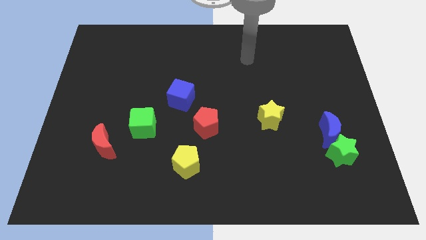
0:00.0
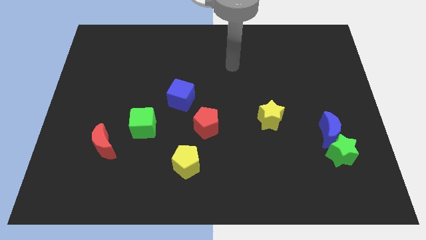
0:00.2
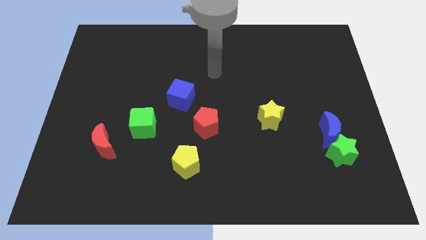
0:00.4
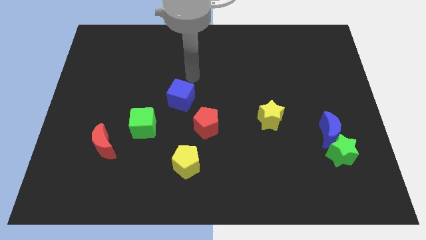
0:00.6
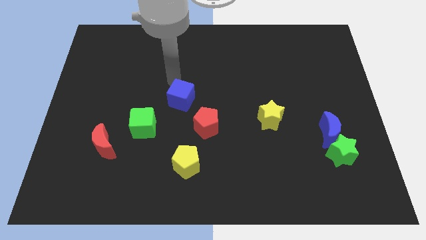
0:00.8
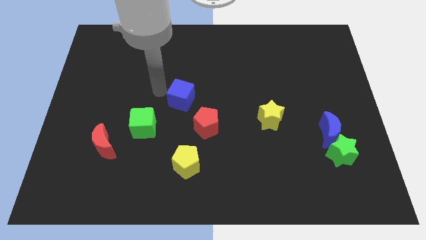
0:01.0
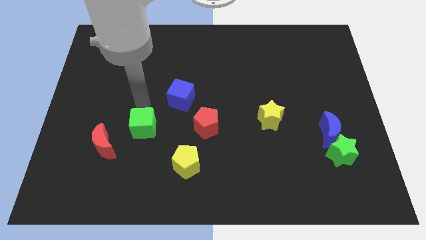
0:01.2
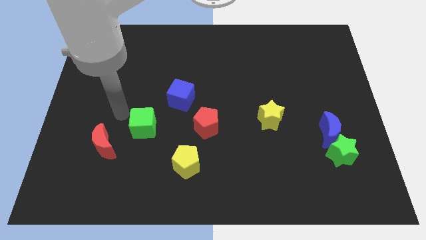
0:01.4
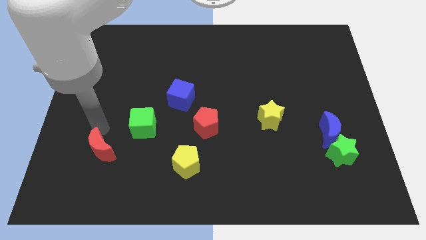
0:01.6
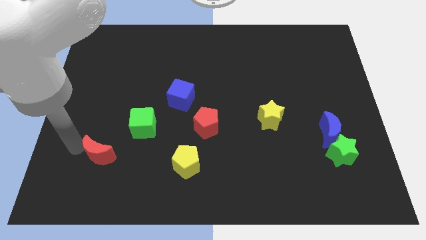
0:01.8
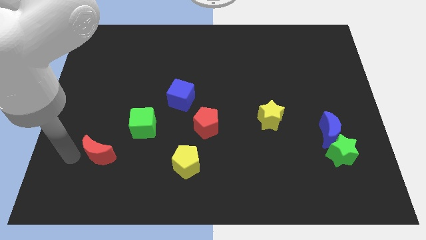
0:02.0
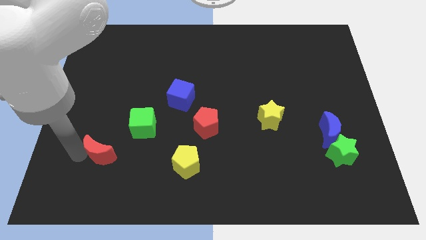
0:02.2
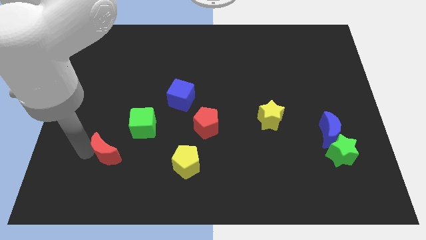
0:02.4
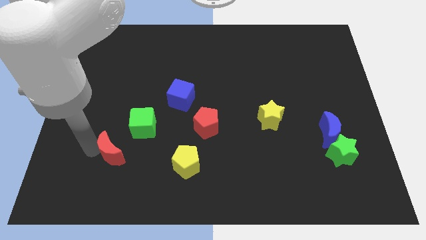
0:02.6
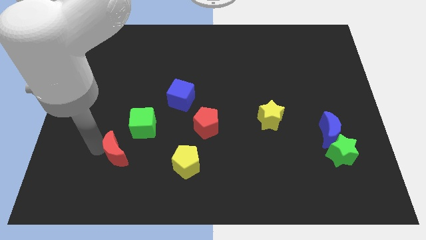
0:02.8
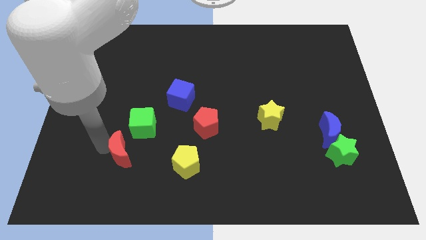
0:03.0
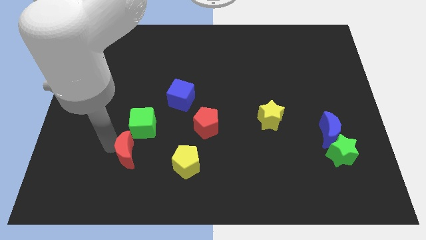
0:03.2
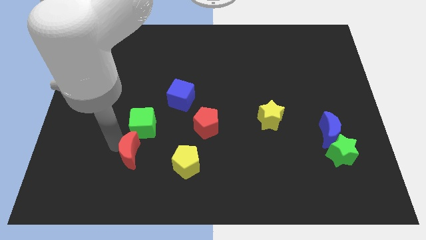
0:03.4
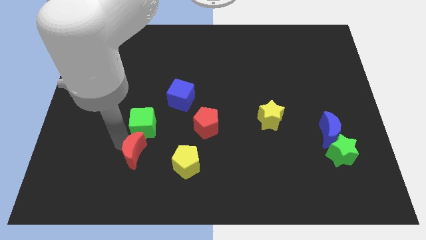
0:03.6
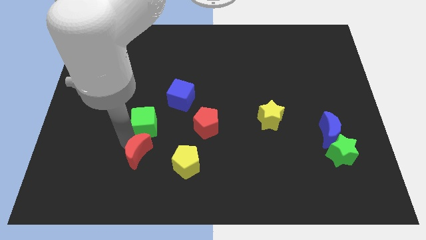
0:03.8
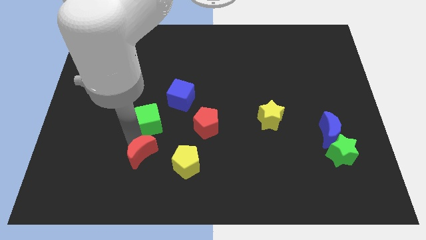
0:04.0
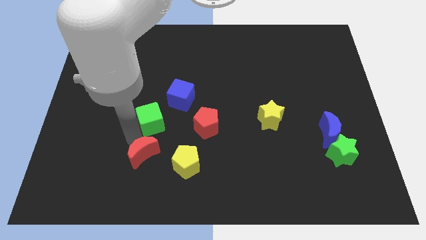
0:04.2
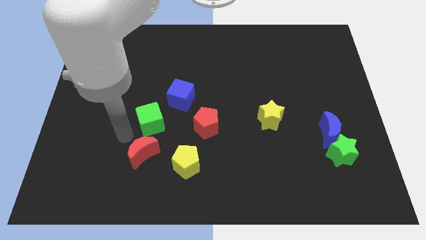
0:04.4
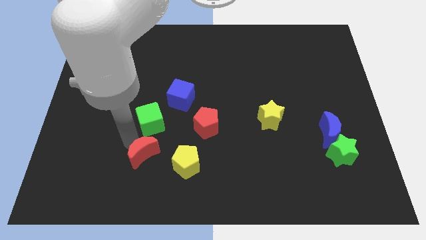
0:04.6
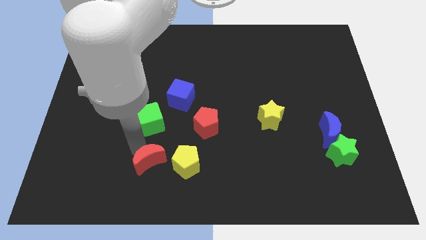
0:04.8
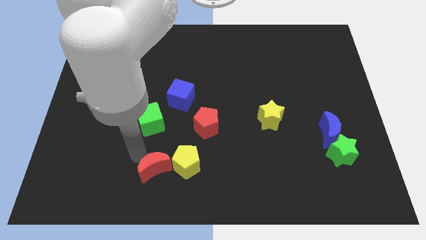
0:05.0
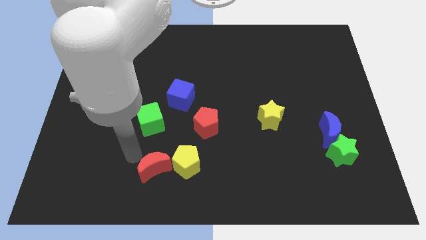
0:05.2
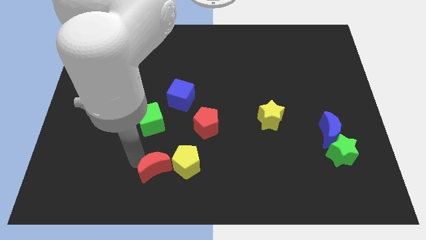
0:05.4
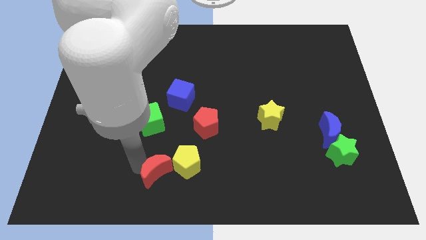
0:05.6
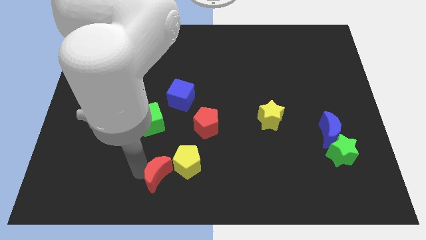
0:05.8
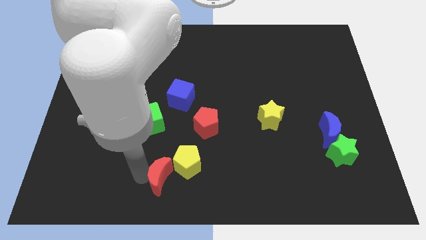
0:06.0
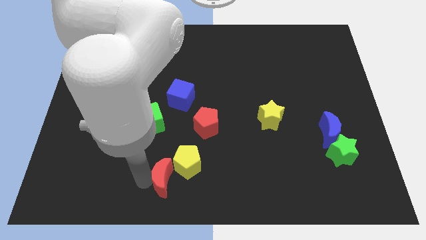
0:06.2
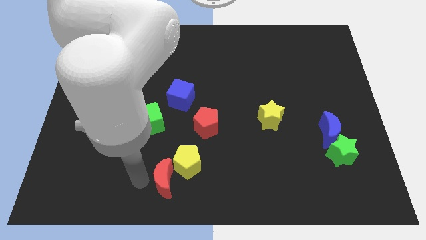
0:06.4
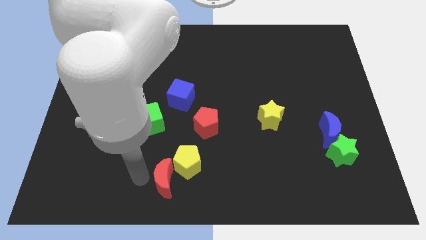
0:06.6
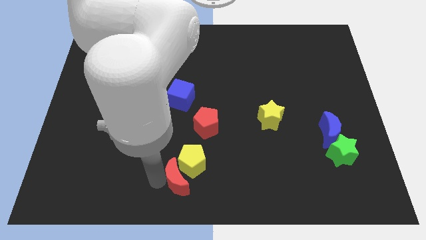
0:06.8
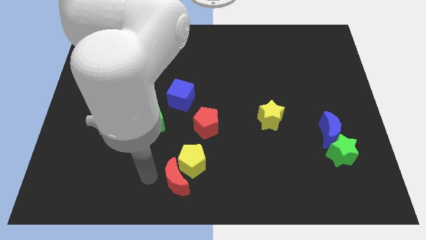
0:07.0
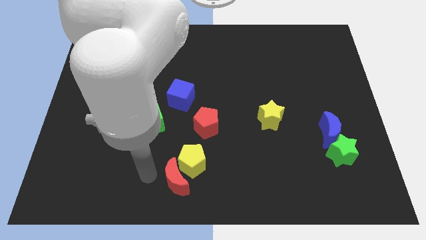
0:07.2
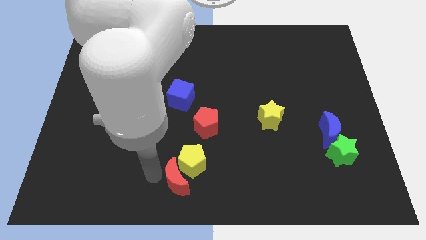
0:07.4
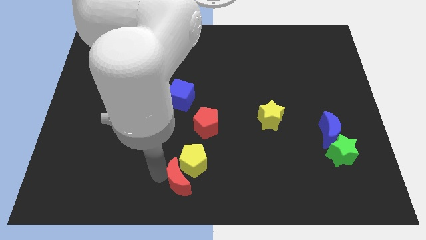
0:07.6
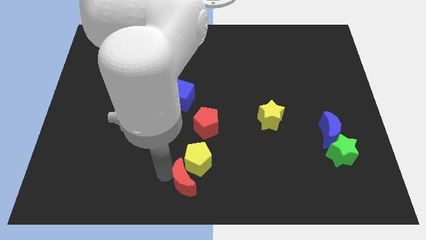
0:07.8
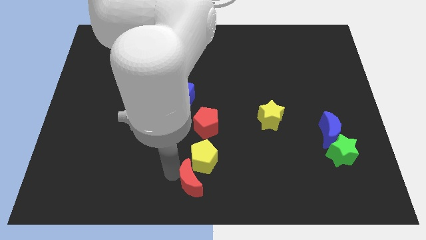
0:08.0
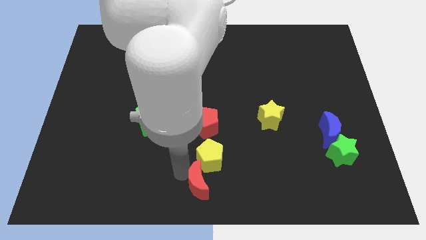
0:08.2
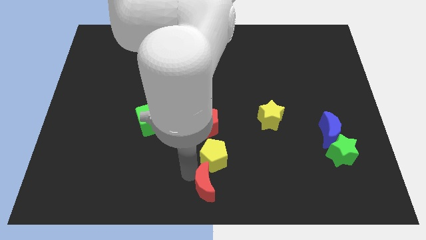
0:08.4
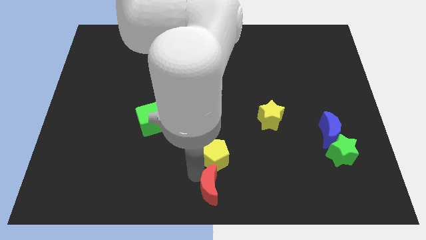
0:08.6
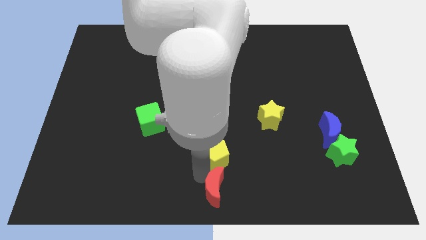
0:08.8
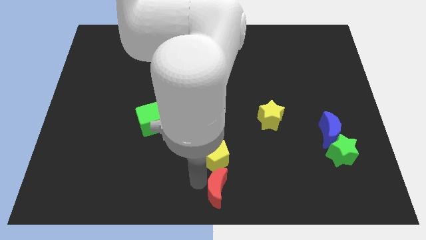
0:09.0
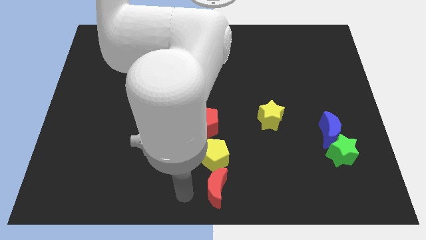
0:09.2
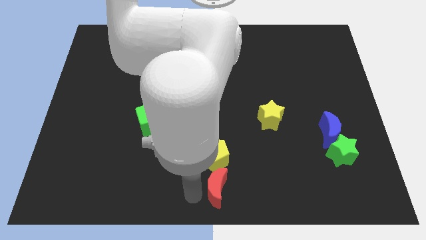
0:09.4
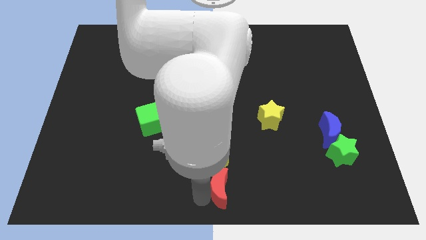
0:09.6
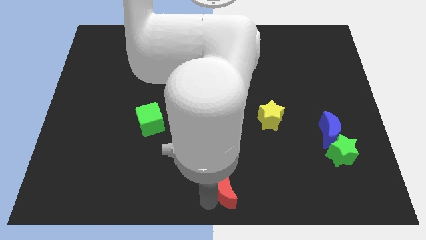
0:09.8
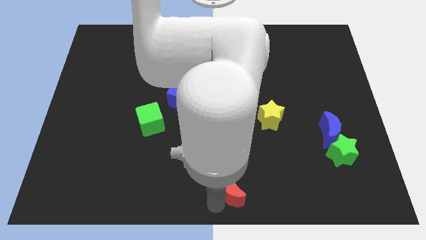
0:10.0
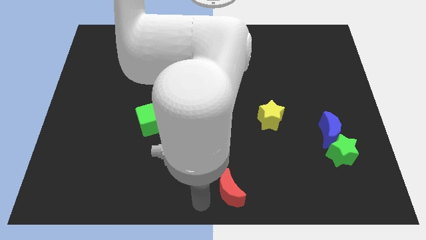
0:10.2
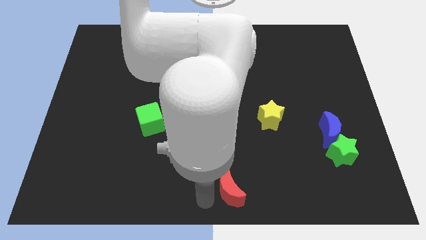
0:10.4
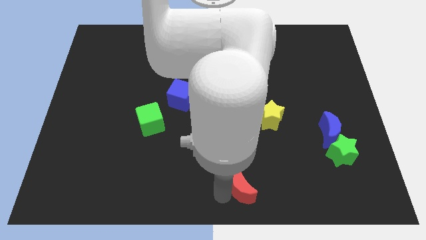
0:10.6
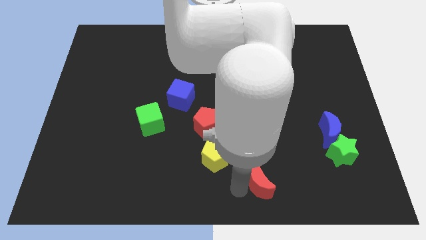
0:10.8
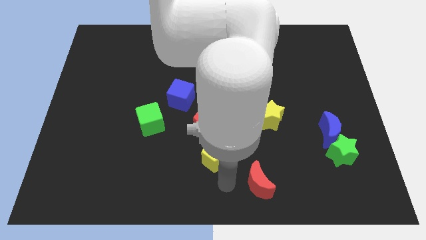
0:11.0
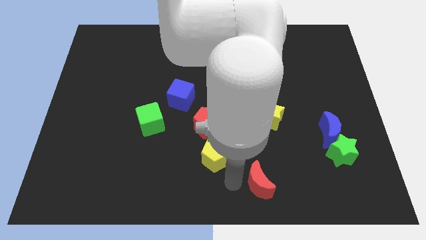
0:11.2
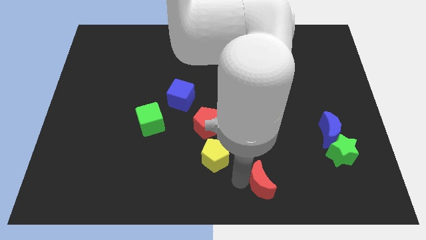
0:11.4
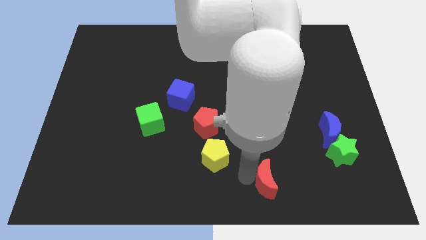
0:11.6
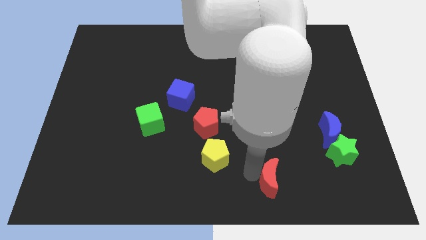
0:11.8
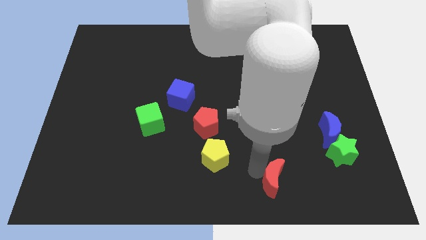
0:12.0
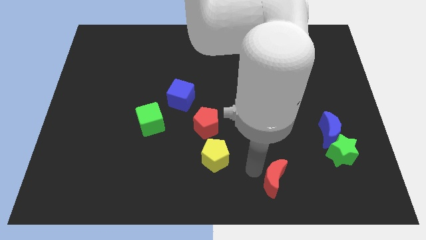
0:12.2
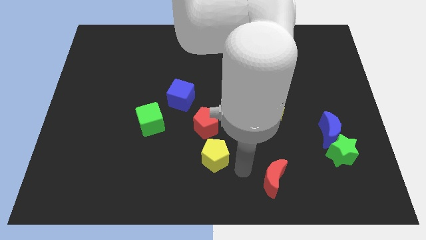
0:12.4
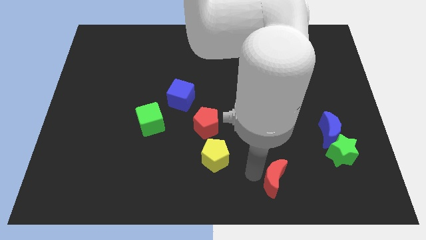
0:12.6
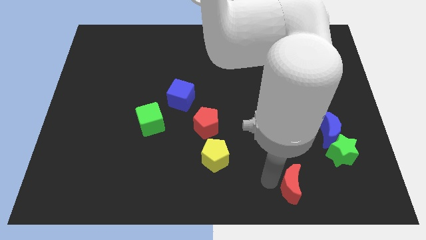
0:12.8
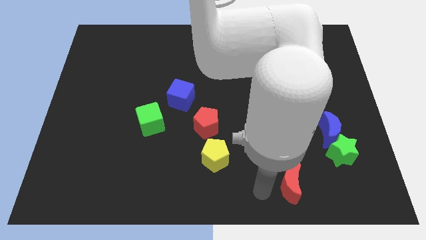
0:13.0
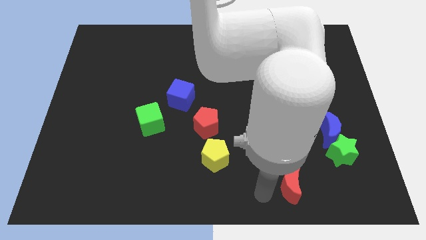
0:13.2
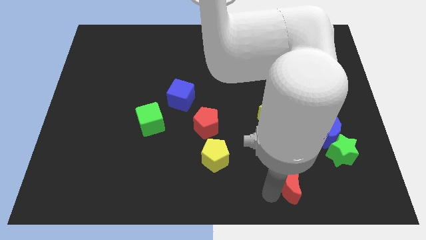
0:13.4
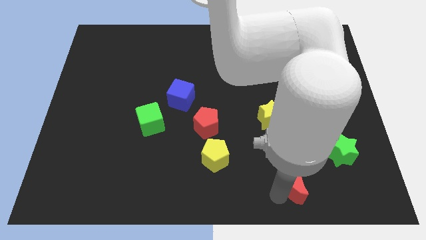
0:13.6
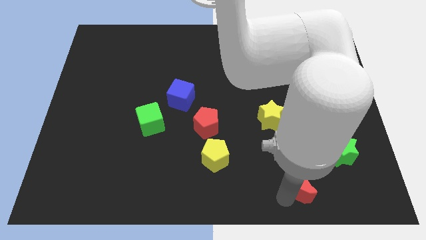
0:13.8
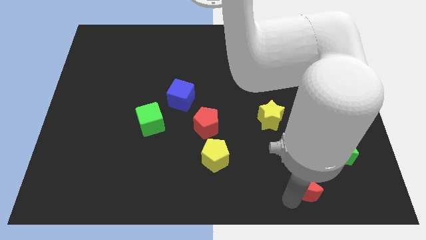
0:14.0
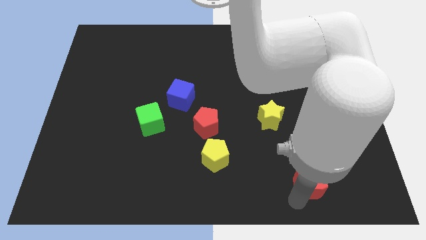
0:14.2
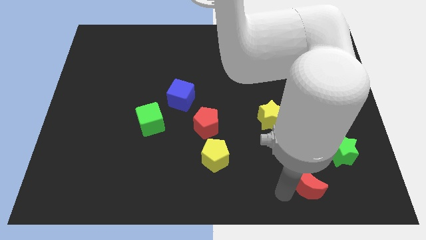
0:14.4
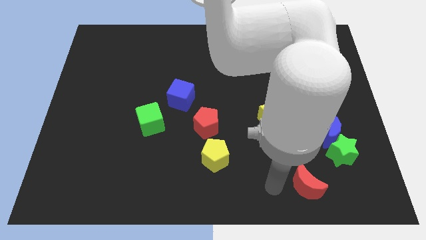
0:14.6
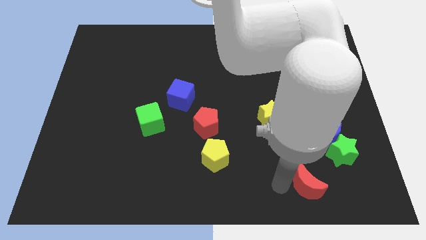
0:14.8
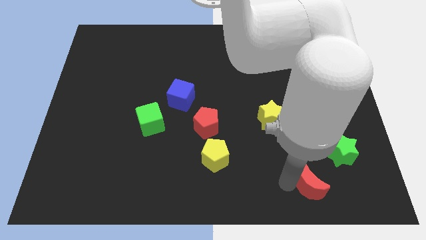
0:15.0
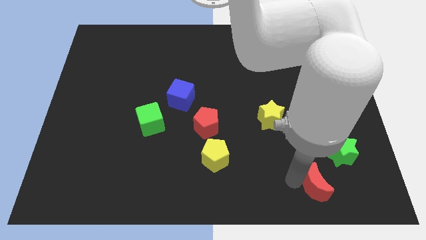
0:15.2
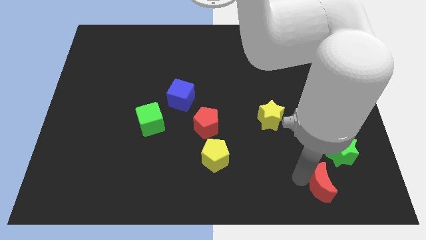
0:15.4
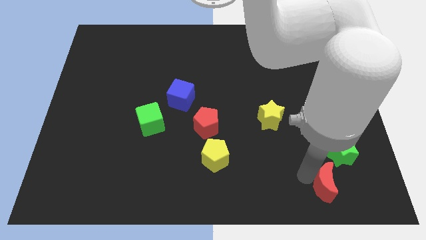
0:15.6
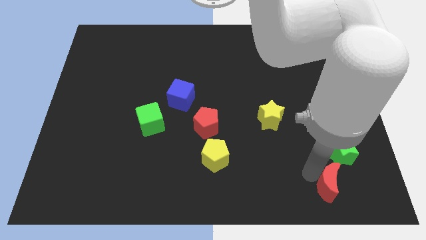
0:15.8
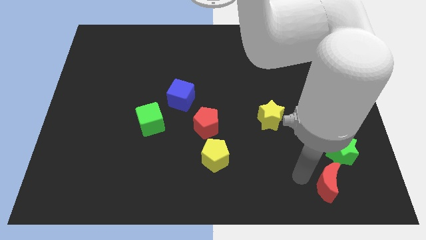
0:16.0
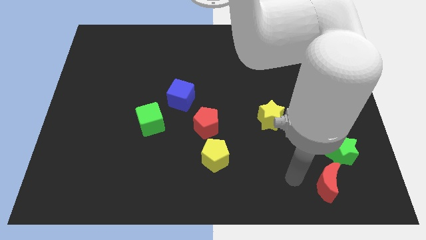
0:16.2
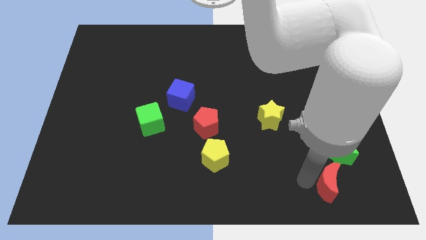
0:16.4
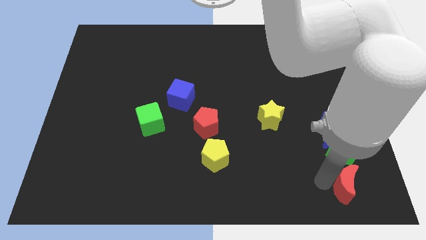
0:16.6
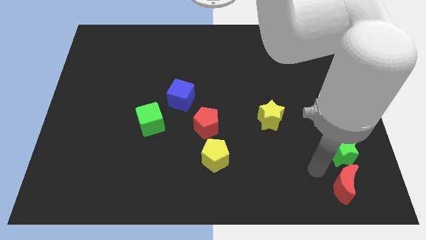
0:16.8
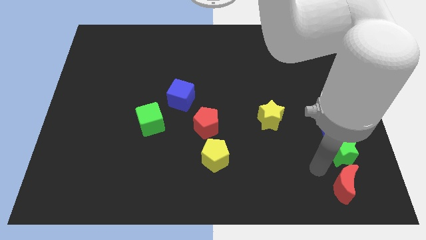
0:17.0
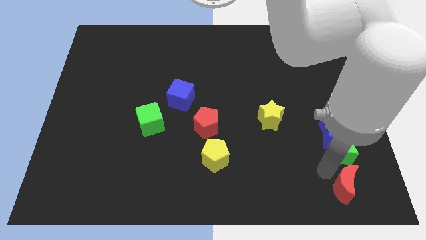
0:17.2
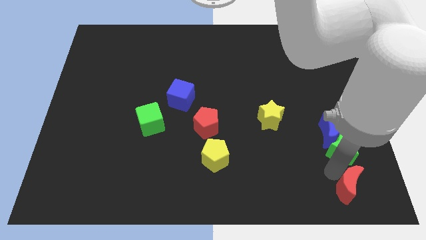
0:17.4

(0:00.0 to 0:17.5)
move the red moon to the bottom right
